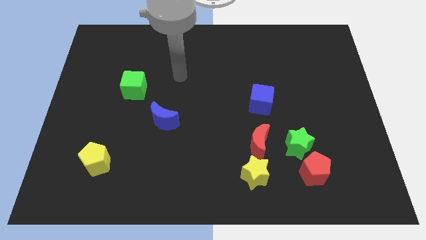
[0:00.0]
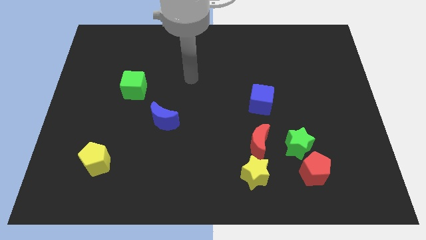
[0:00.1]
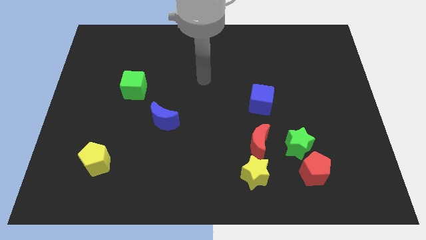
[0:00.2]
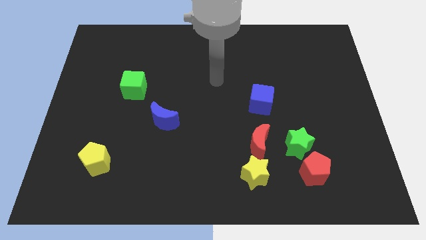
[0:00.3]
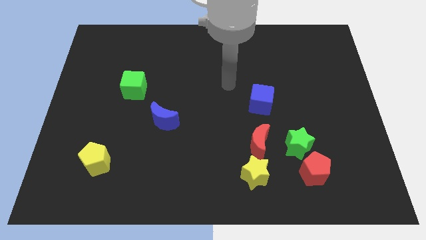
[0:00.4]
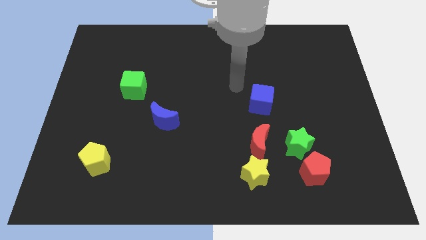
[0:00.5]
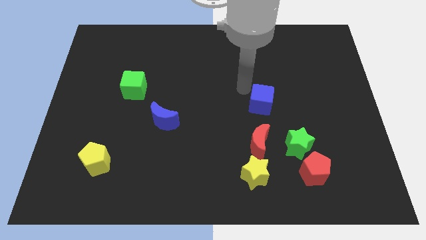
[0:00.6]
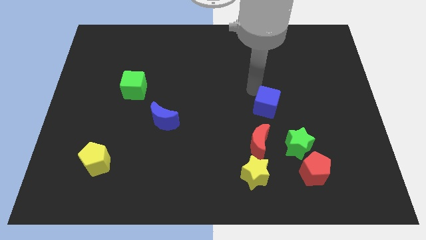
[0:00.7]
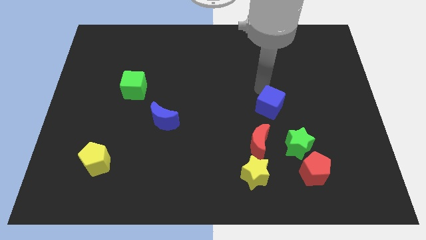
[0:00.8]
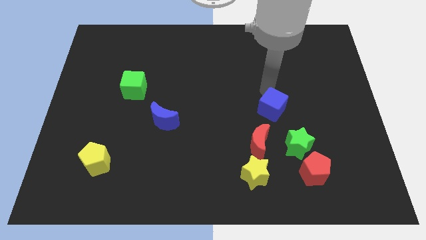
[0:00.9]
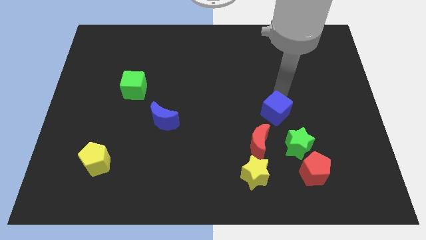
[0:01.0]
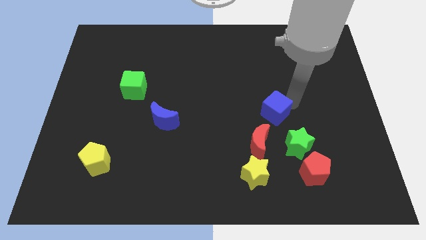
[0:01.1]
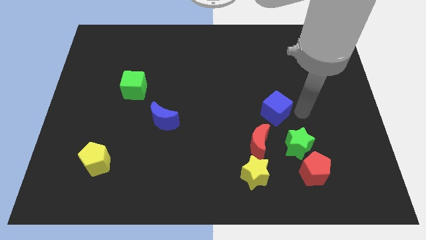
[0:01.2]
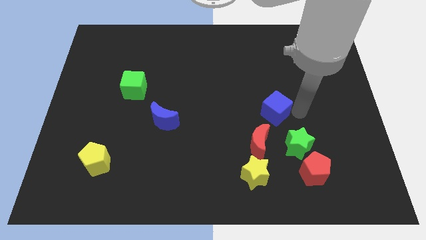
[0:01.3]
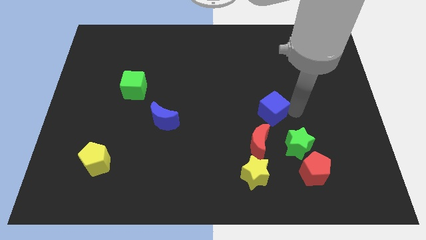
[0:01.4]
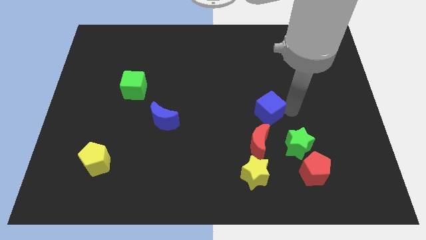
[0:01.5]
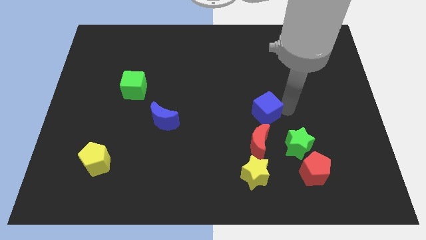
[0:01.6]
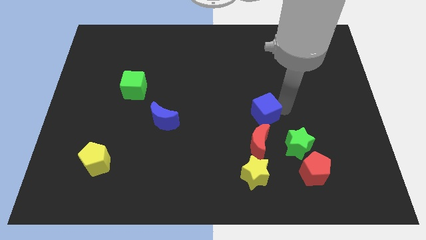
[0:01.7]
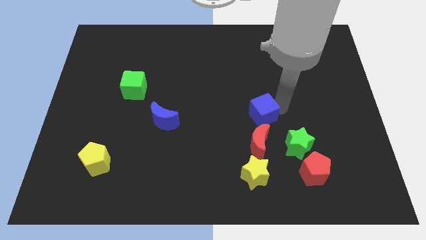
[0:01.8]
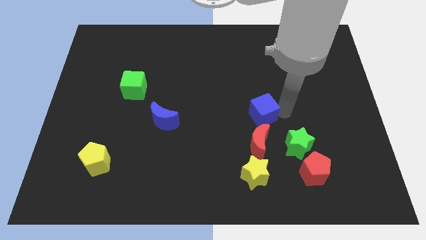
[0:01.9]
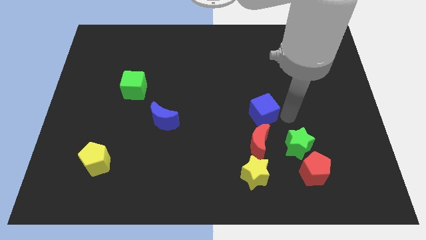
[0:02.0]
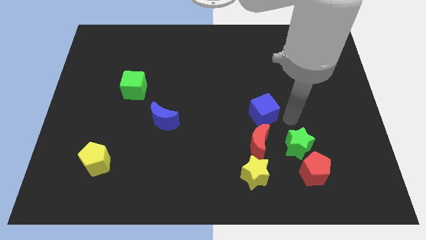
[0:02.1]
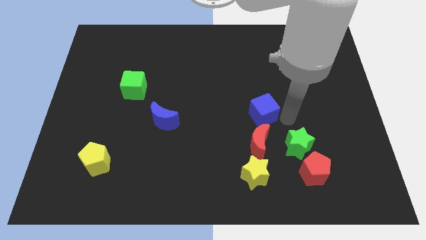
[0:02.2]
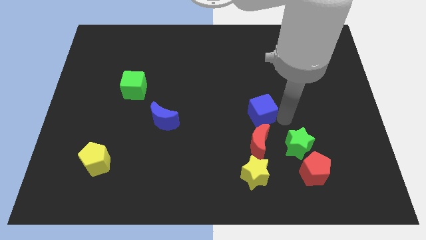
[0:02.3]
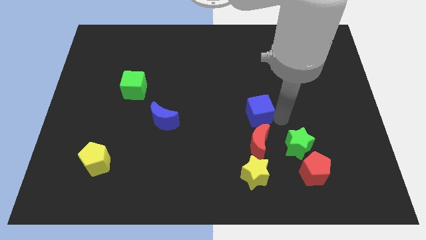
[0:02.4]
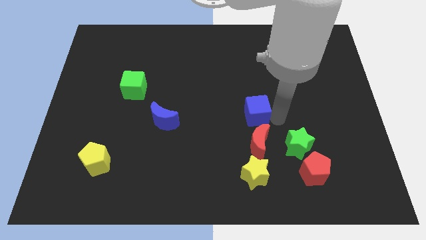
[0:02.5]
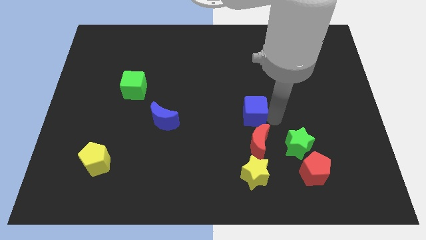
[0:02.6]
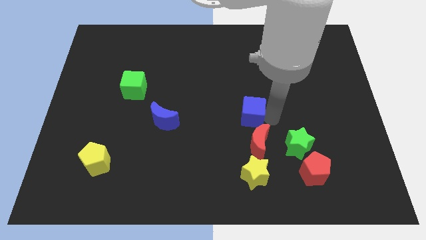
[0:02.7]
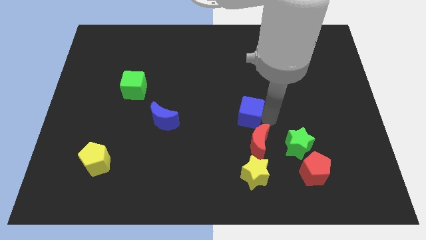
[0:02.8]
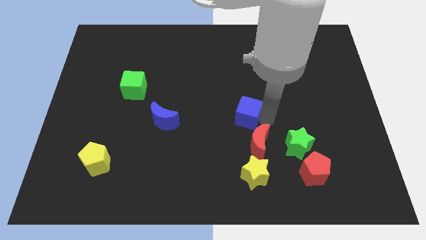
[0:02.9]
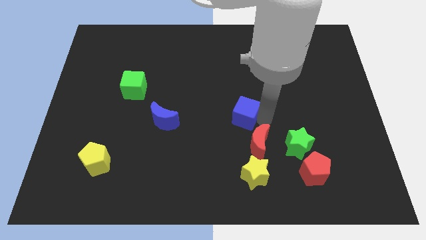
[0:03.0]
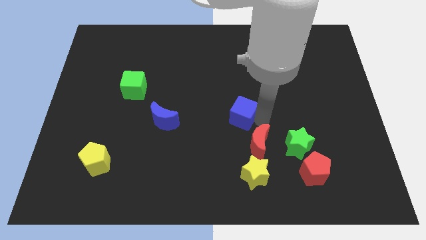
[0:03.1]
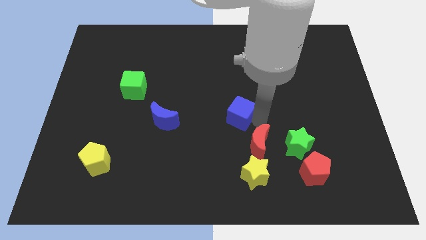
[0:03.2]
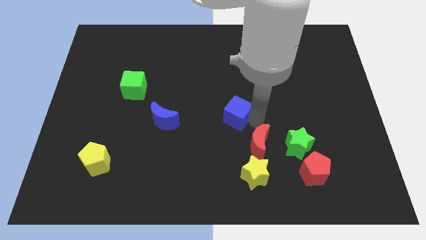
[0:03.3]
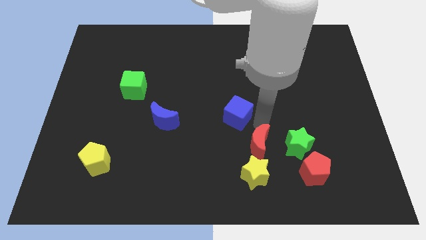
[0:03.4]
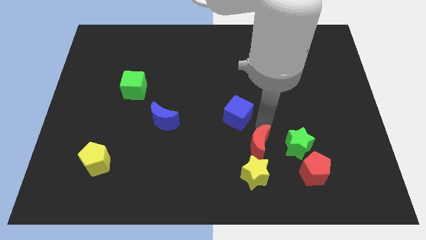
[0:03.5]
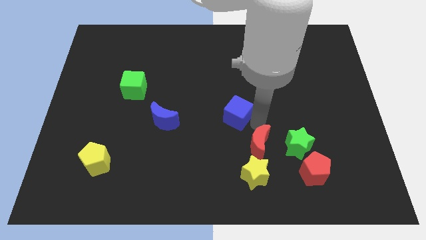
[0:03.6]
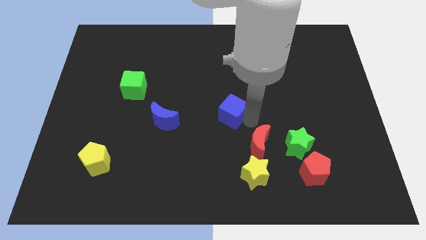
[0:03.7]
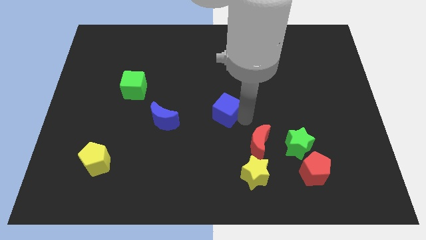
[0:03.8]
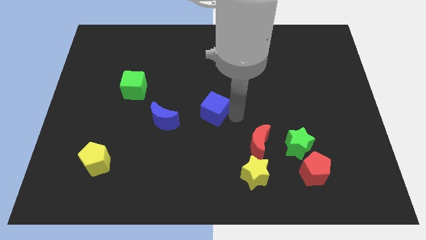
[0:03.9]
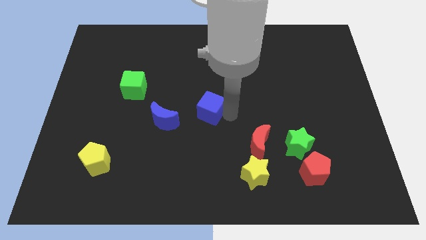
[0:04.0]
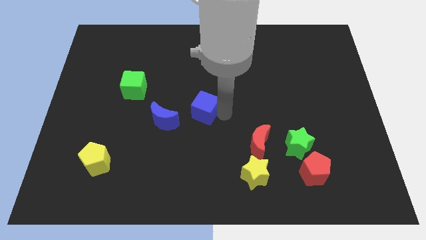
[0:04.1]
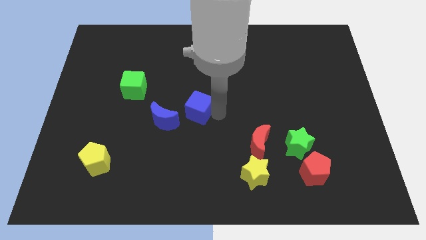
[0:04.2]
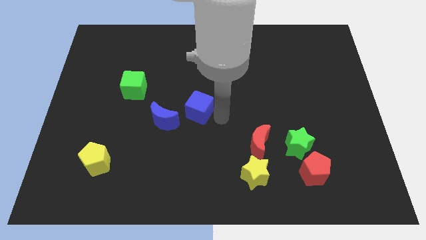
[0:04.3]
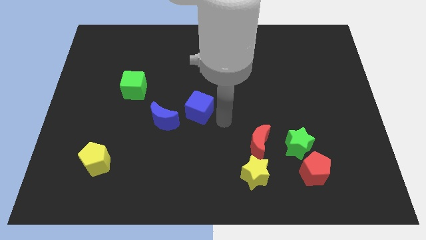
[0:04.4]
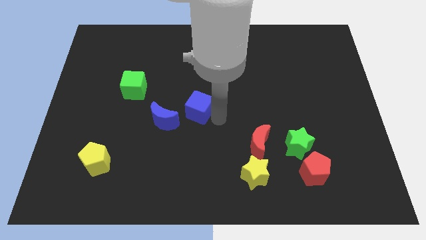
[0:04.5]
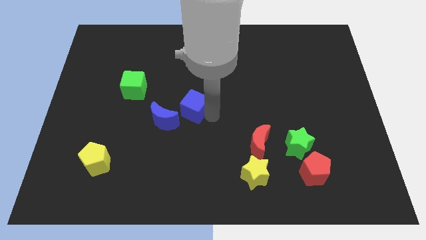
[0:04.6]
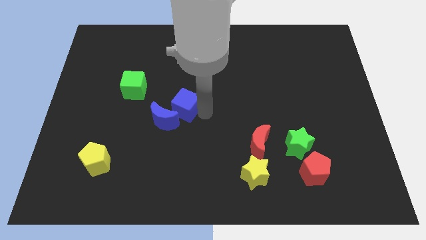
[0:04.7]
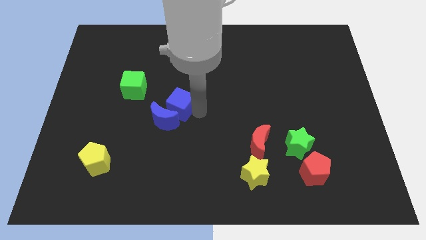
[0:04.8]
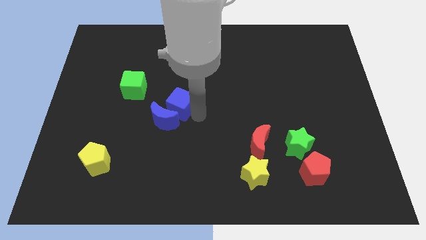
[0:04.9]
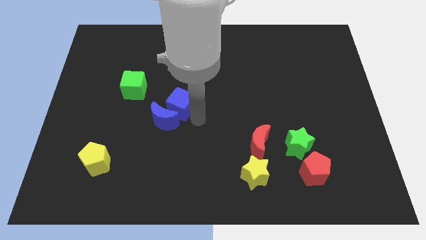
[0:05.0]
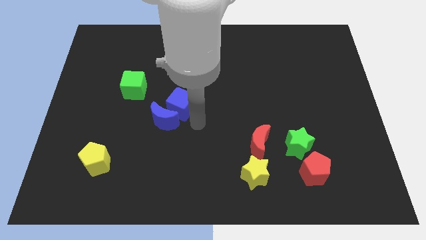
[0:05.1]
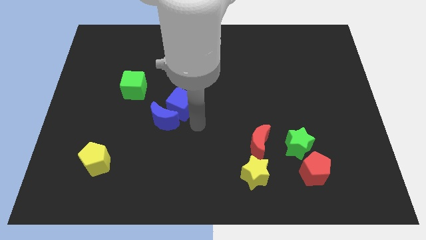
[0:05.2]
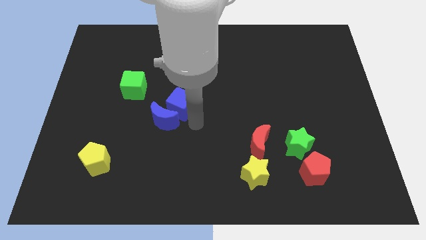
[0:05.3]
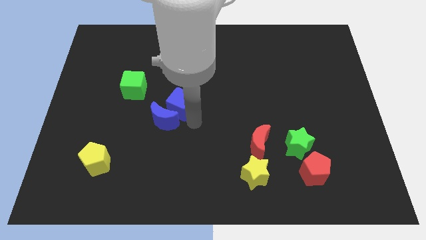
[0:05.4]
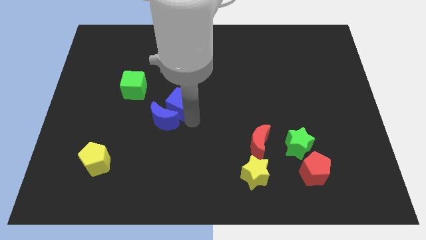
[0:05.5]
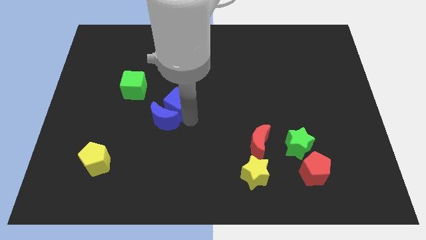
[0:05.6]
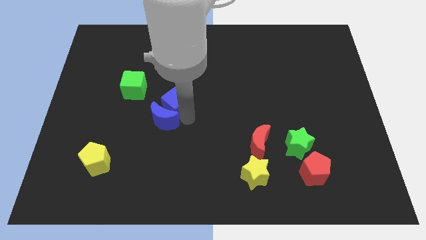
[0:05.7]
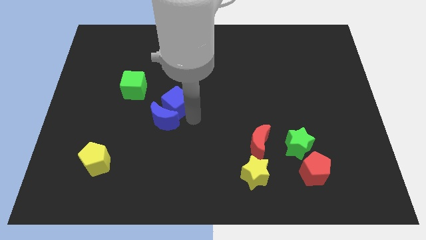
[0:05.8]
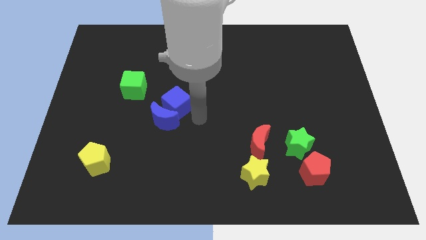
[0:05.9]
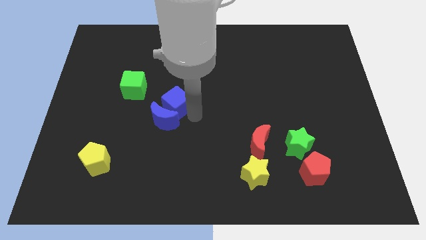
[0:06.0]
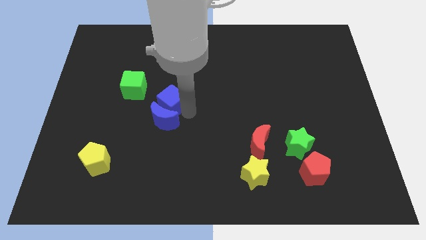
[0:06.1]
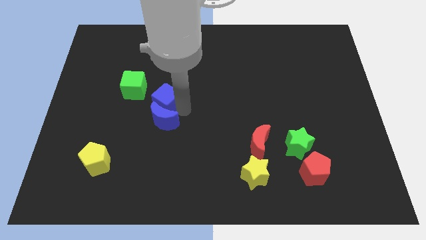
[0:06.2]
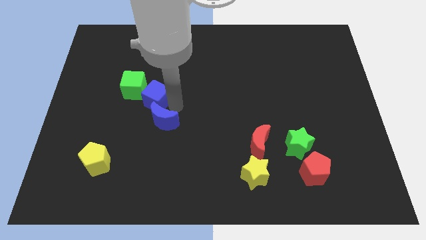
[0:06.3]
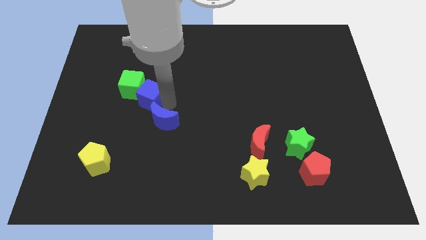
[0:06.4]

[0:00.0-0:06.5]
slide the blue cube close to the green cube
